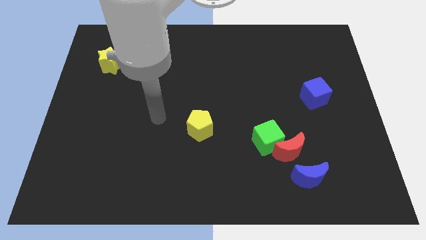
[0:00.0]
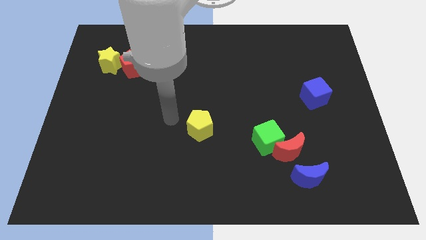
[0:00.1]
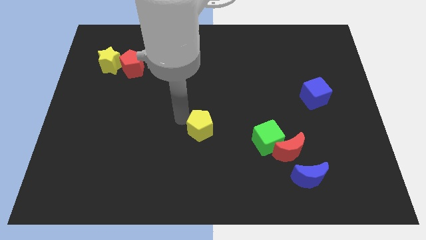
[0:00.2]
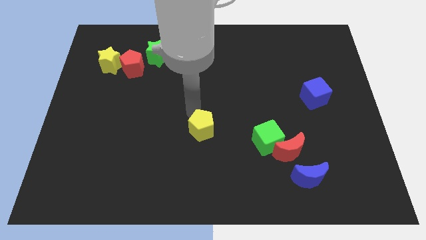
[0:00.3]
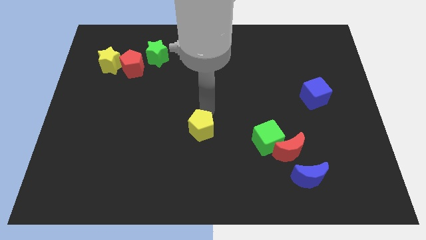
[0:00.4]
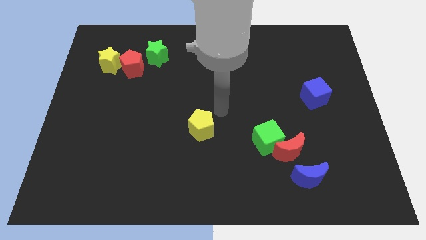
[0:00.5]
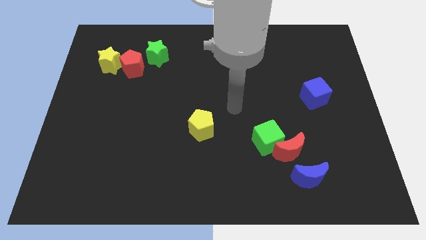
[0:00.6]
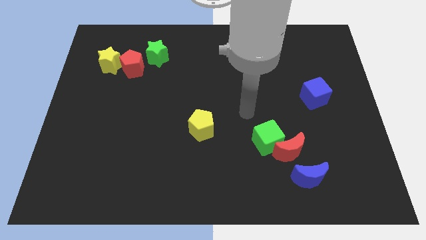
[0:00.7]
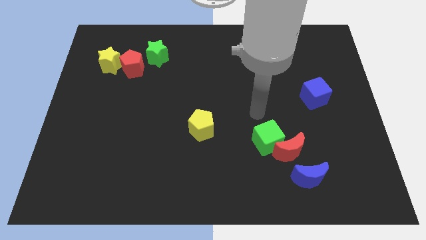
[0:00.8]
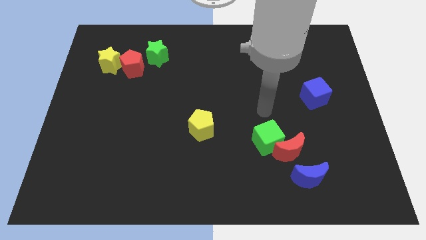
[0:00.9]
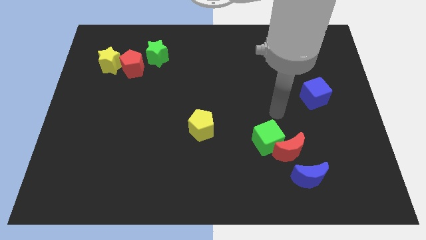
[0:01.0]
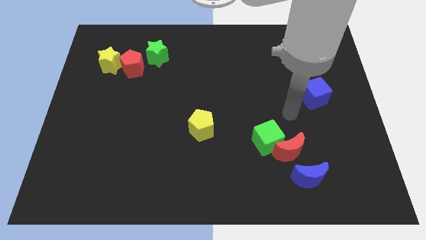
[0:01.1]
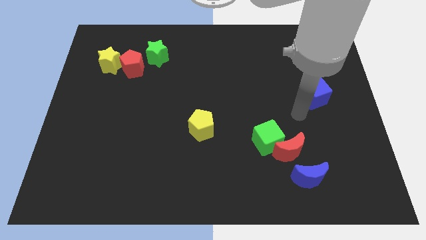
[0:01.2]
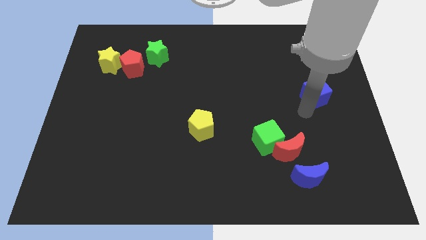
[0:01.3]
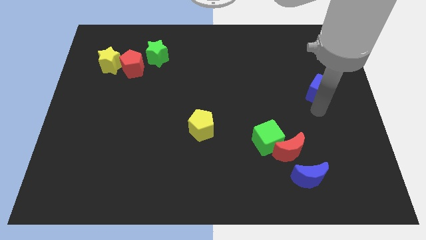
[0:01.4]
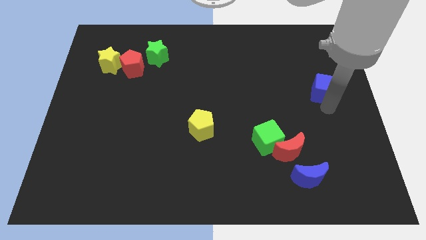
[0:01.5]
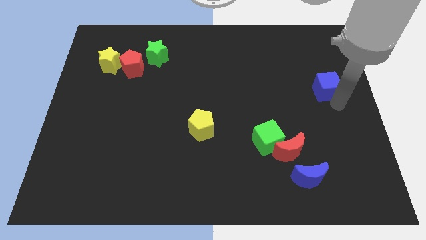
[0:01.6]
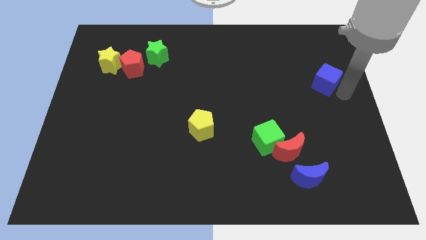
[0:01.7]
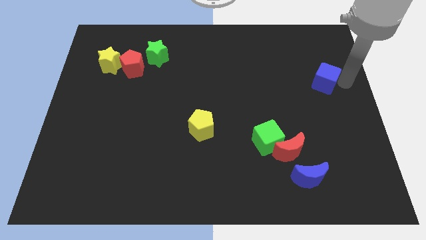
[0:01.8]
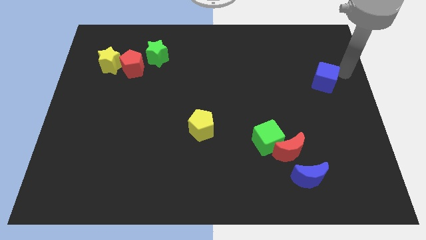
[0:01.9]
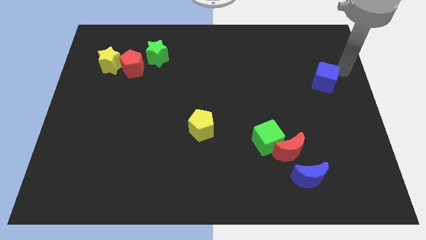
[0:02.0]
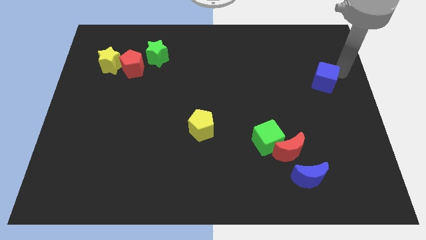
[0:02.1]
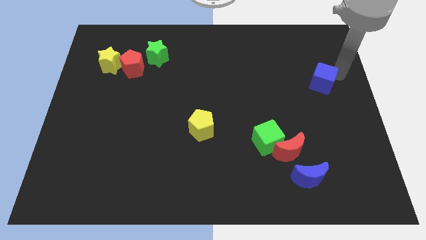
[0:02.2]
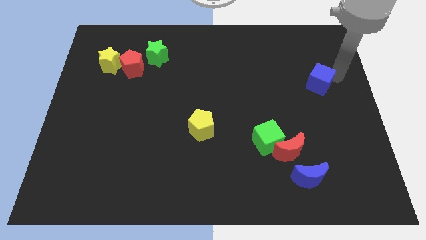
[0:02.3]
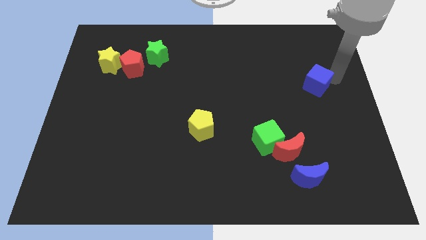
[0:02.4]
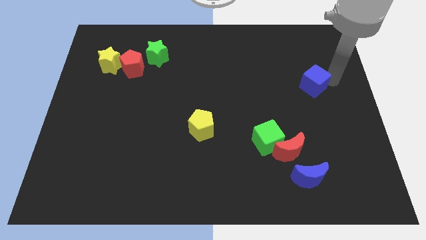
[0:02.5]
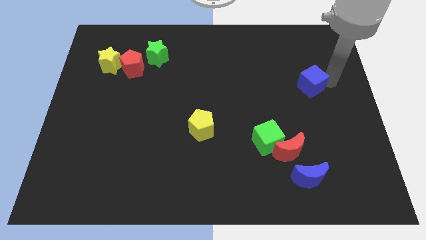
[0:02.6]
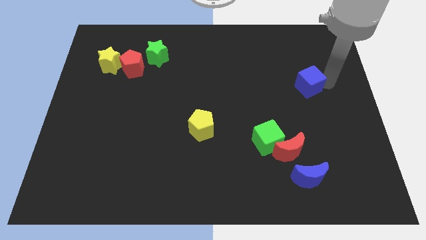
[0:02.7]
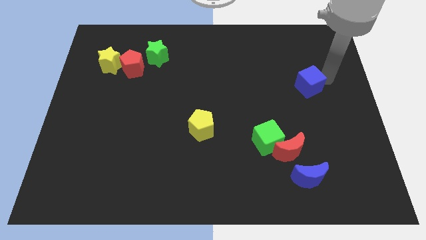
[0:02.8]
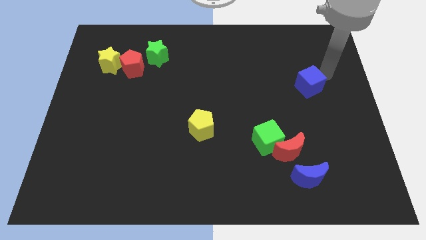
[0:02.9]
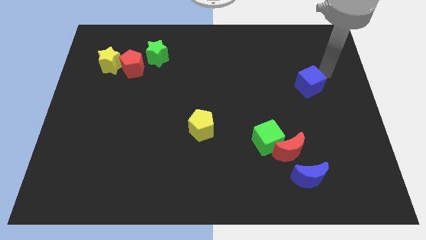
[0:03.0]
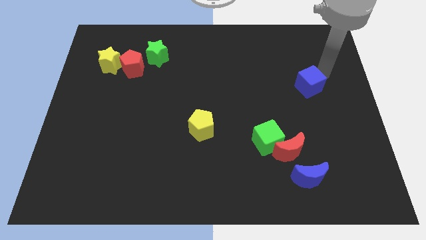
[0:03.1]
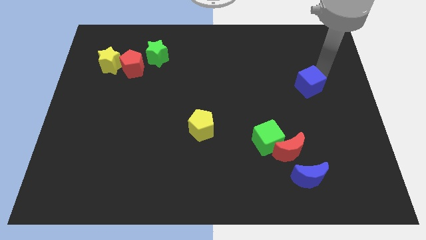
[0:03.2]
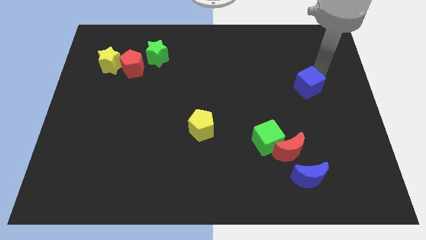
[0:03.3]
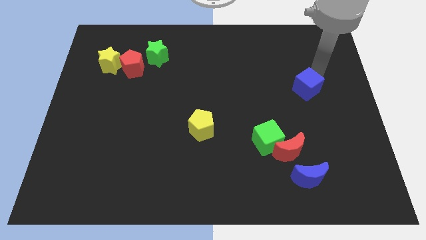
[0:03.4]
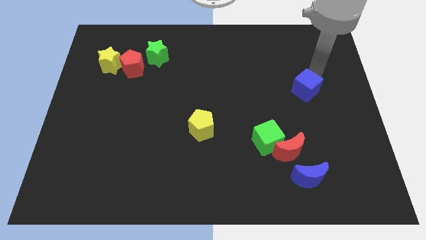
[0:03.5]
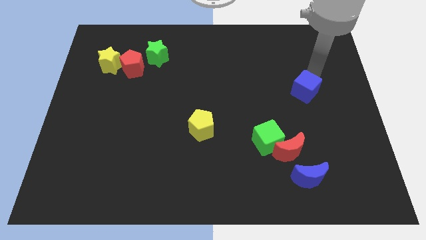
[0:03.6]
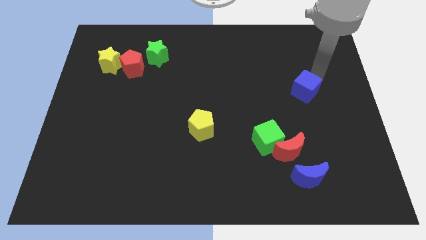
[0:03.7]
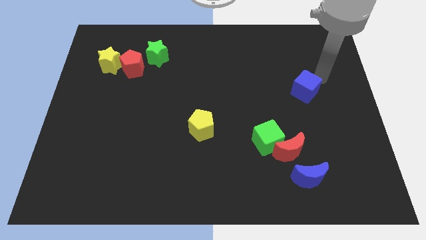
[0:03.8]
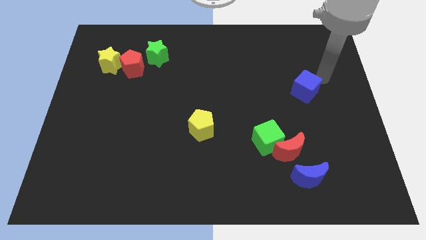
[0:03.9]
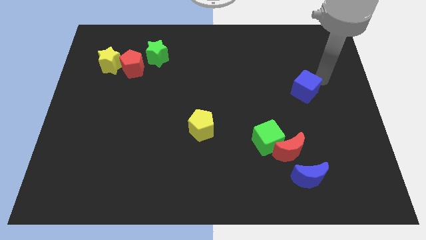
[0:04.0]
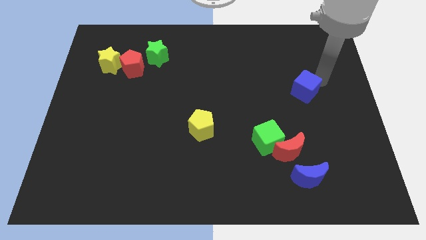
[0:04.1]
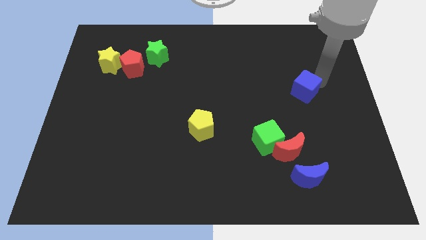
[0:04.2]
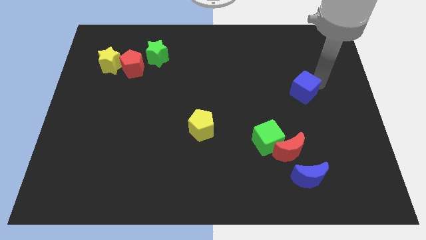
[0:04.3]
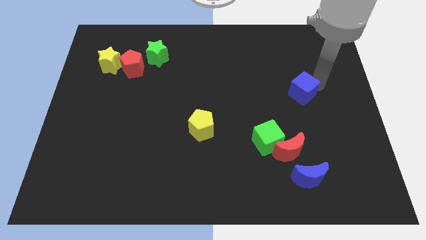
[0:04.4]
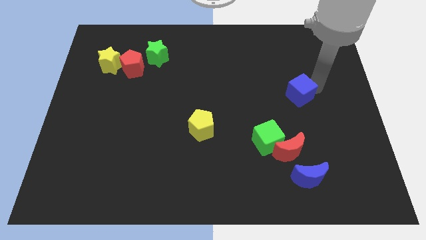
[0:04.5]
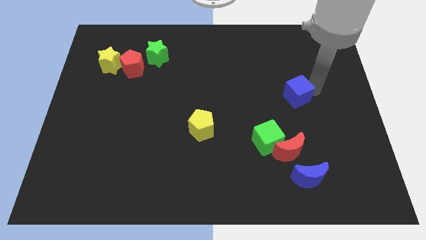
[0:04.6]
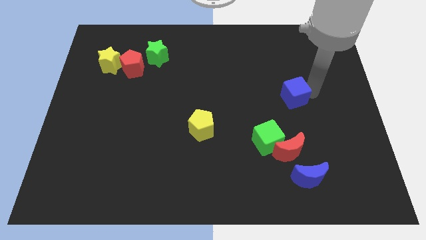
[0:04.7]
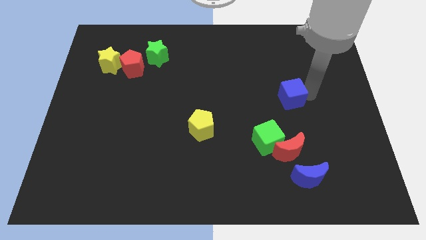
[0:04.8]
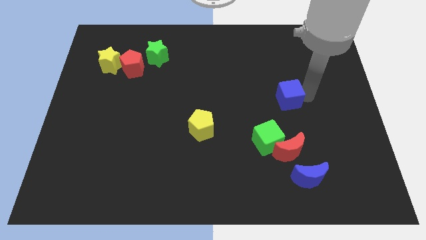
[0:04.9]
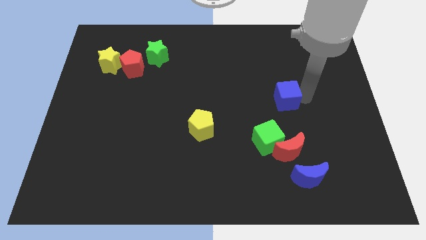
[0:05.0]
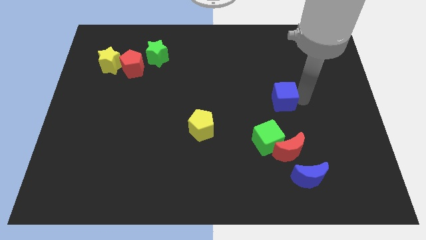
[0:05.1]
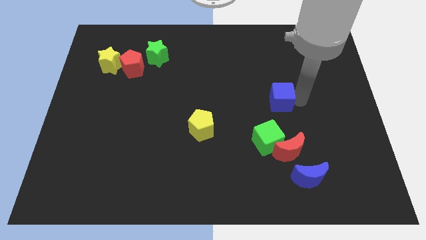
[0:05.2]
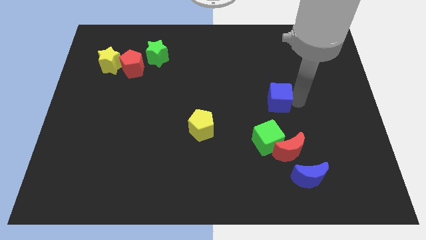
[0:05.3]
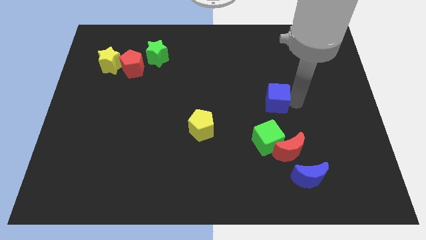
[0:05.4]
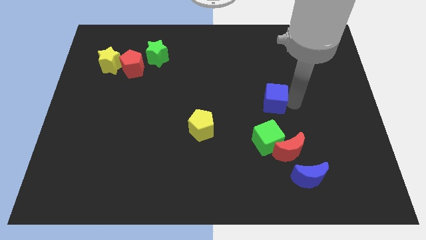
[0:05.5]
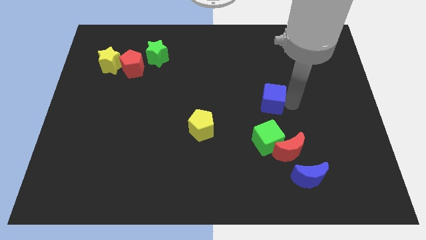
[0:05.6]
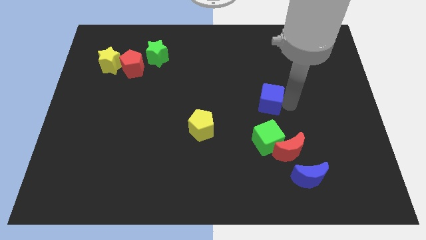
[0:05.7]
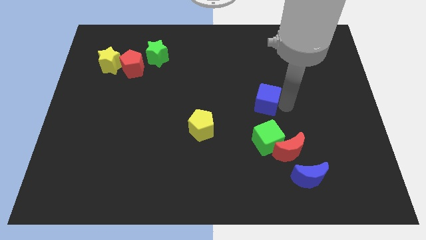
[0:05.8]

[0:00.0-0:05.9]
move the blue cube to the center of the board

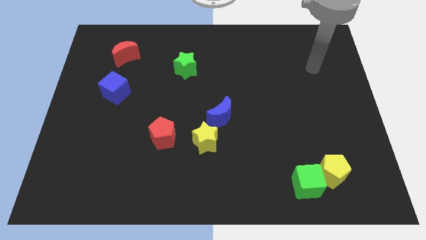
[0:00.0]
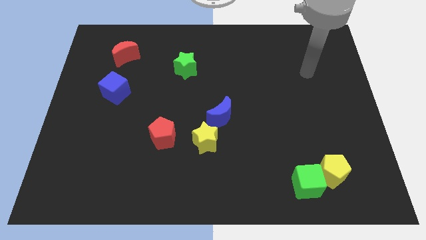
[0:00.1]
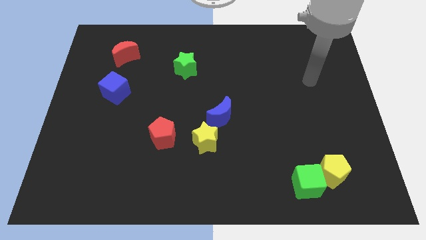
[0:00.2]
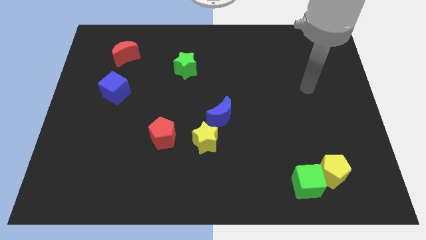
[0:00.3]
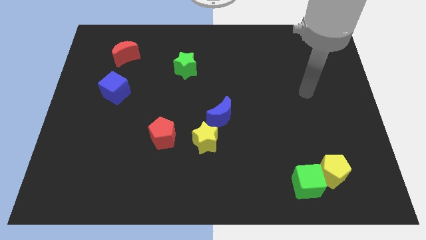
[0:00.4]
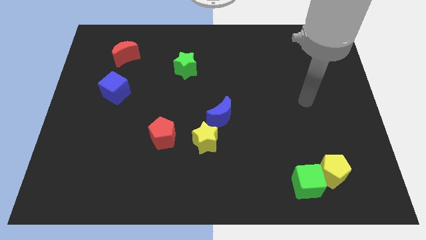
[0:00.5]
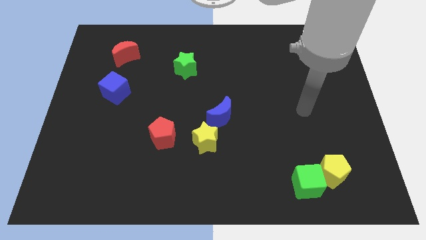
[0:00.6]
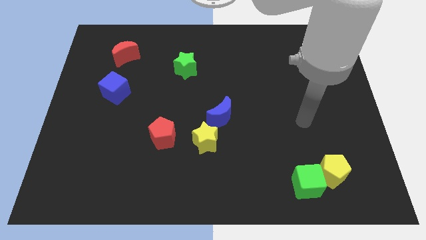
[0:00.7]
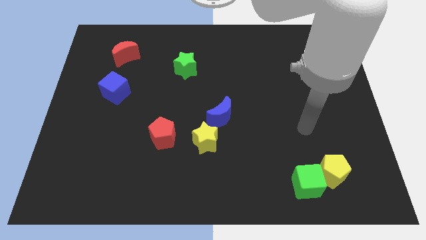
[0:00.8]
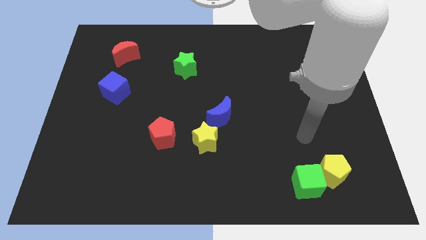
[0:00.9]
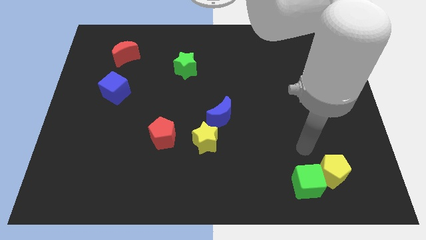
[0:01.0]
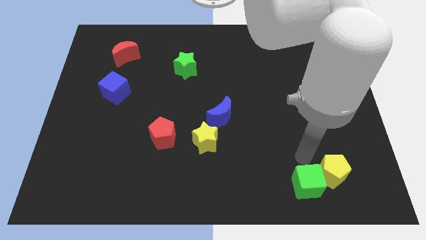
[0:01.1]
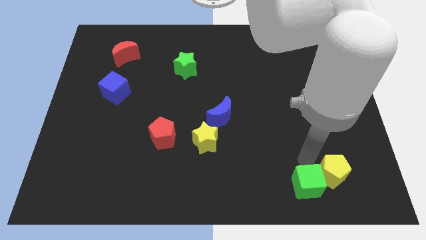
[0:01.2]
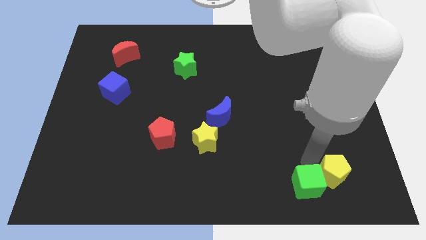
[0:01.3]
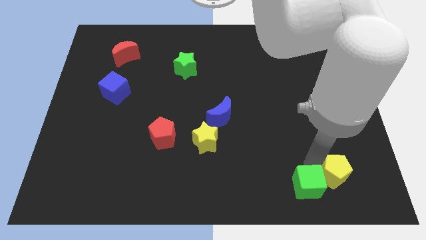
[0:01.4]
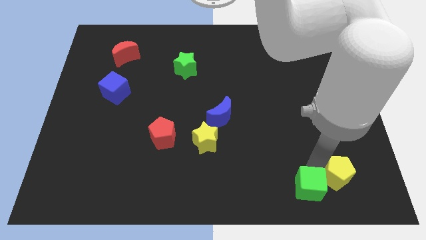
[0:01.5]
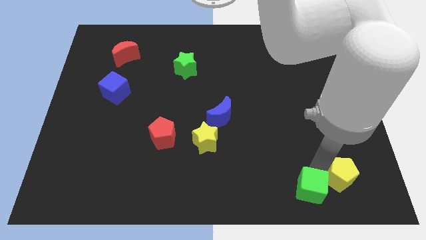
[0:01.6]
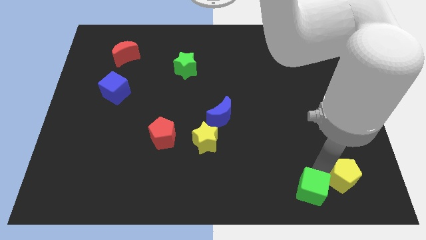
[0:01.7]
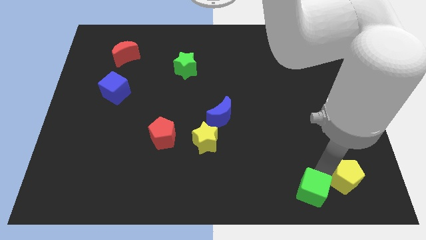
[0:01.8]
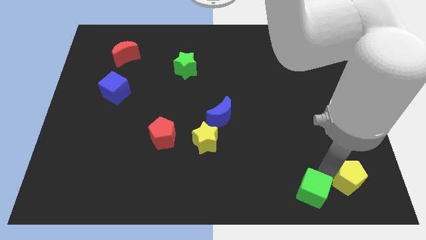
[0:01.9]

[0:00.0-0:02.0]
push the yellow pentagon to the lower right corner
